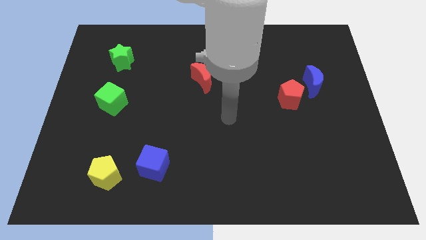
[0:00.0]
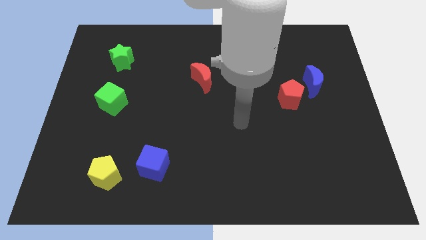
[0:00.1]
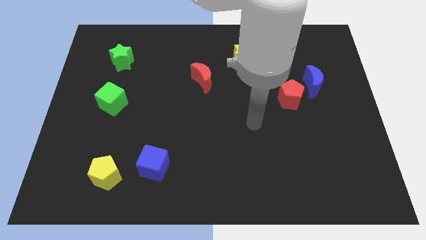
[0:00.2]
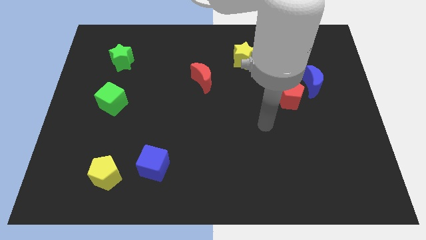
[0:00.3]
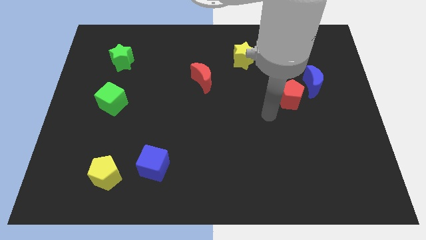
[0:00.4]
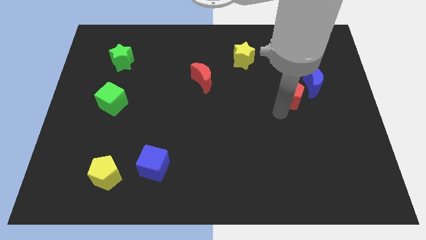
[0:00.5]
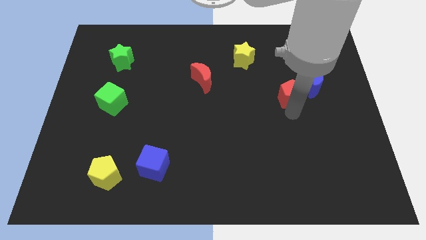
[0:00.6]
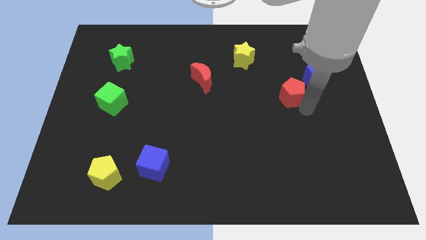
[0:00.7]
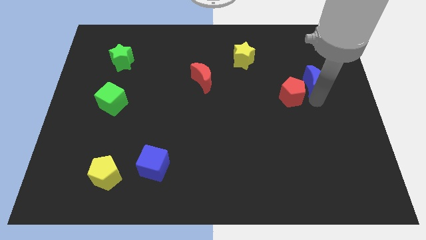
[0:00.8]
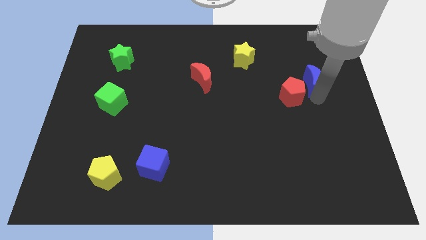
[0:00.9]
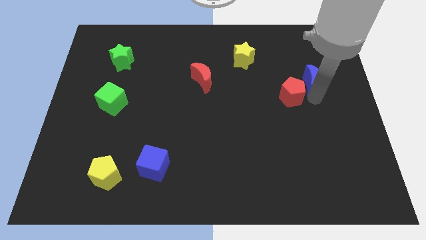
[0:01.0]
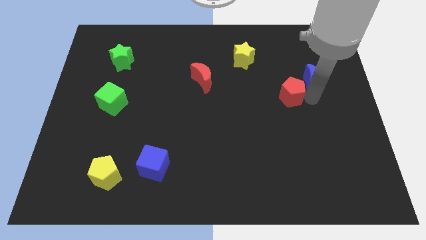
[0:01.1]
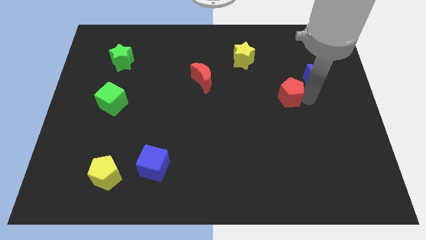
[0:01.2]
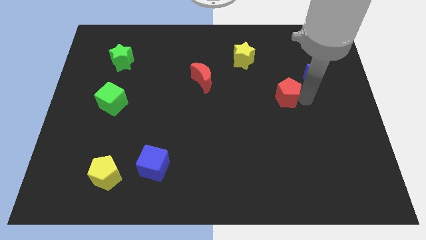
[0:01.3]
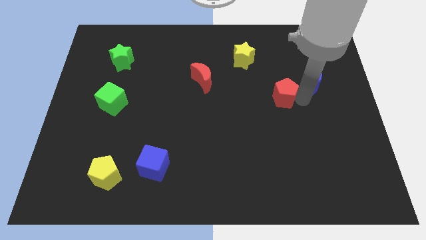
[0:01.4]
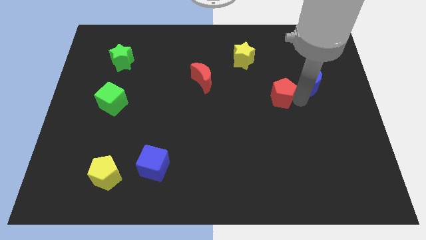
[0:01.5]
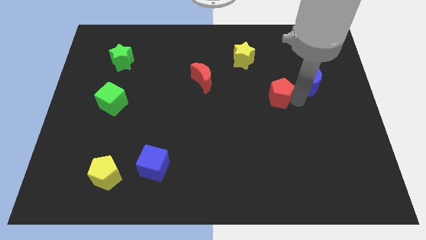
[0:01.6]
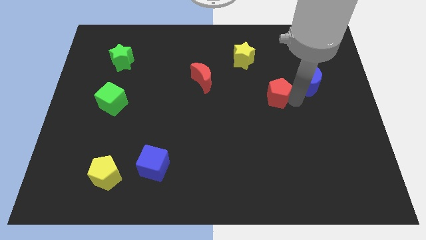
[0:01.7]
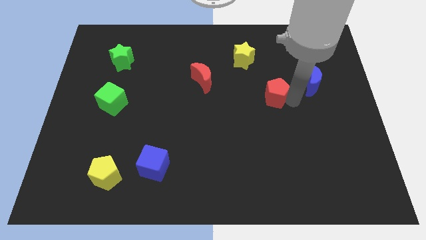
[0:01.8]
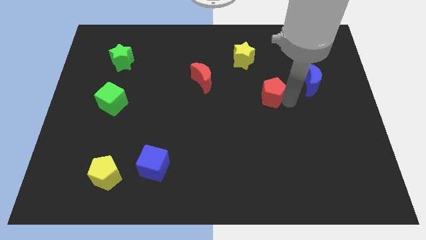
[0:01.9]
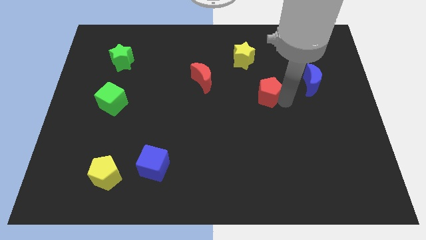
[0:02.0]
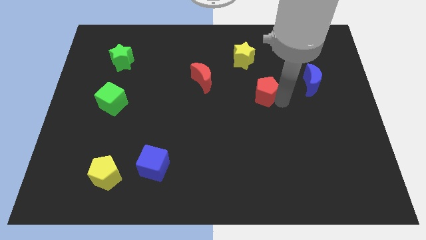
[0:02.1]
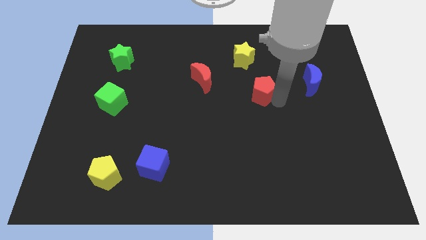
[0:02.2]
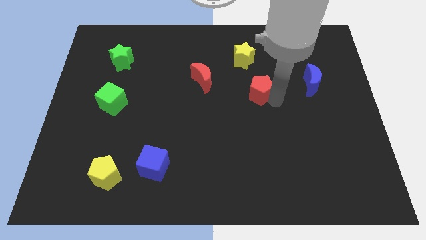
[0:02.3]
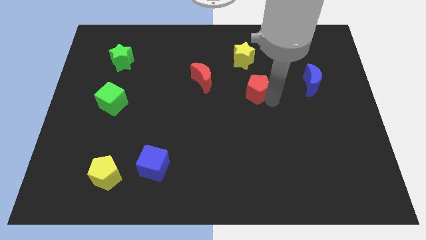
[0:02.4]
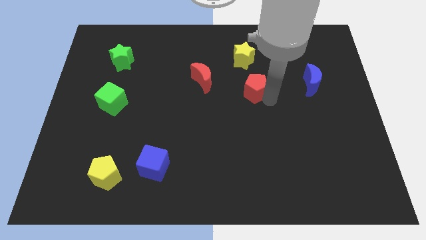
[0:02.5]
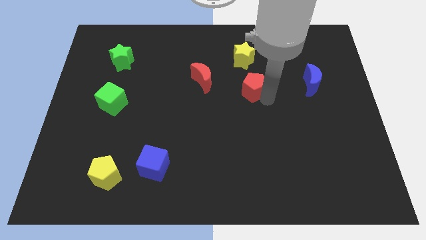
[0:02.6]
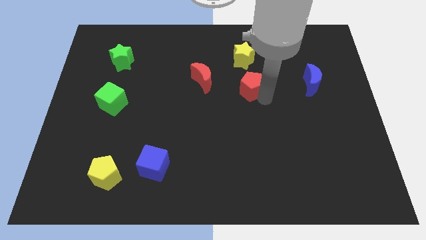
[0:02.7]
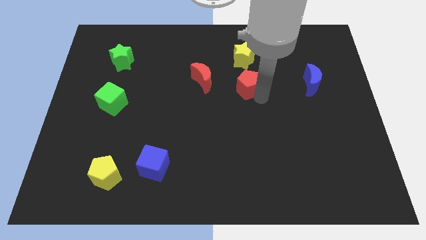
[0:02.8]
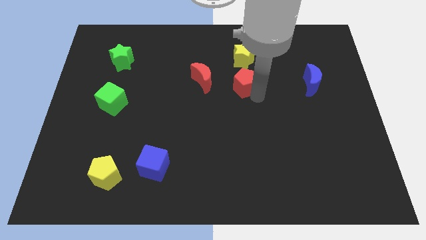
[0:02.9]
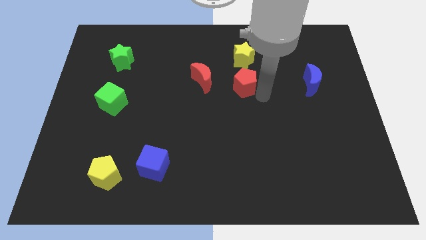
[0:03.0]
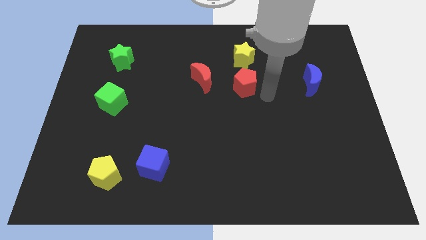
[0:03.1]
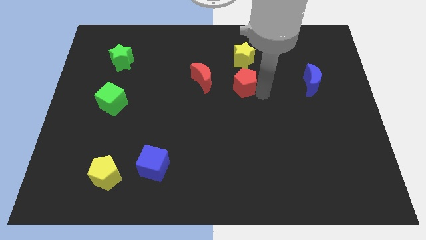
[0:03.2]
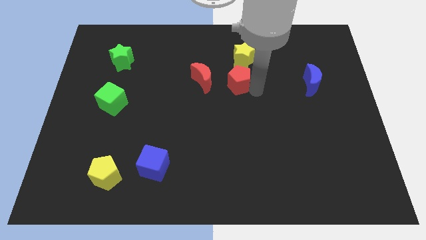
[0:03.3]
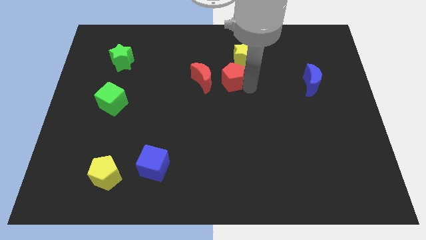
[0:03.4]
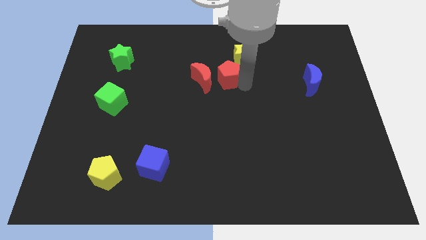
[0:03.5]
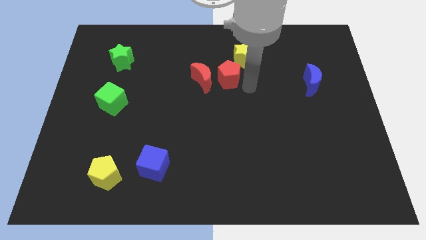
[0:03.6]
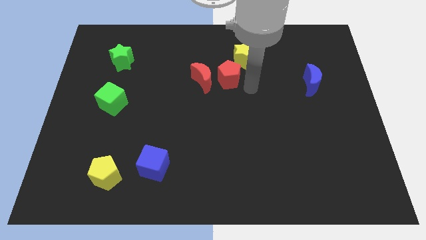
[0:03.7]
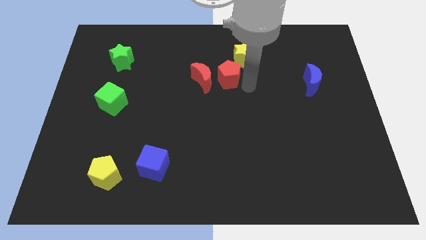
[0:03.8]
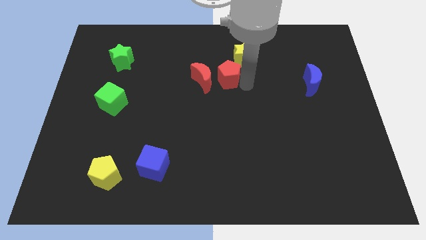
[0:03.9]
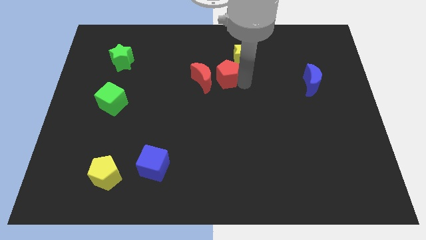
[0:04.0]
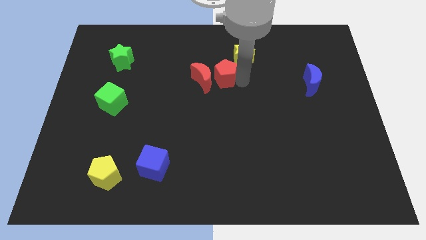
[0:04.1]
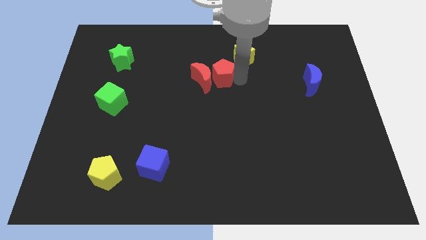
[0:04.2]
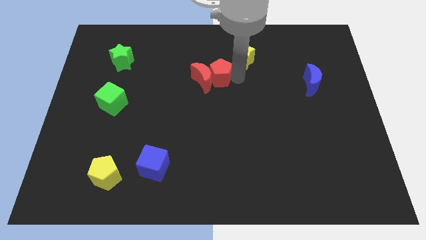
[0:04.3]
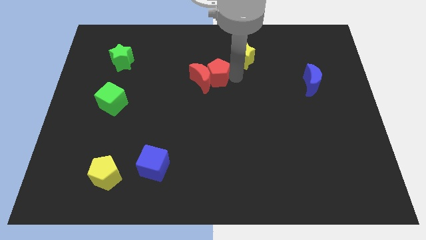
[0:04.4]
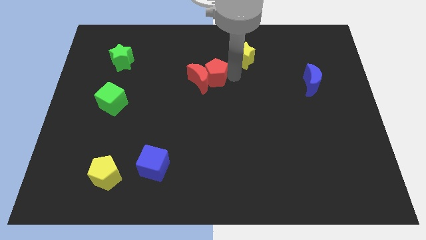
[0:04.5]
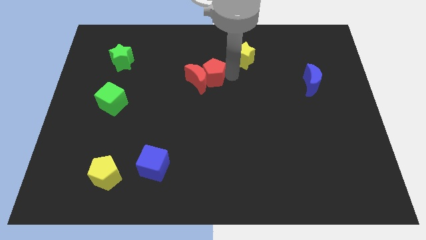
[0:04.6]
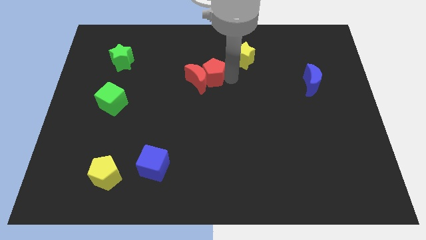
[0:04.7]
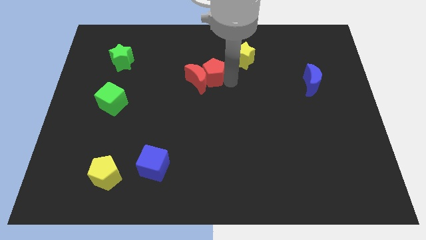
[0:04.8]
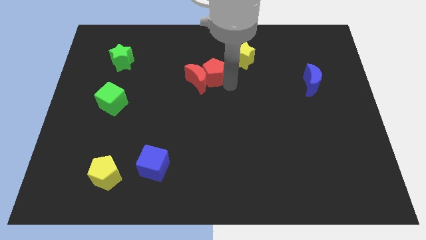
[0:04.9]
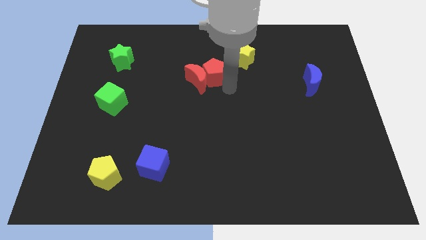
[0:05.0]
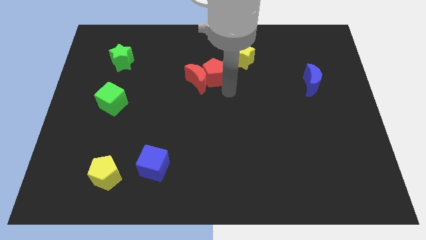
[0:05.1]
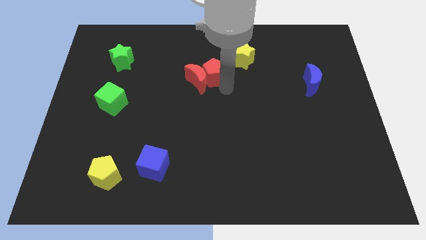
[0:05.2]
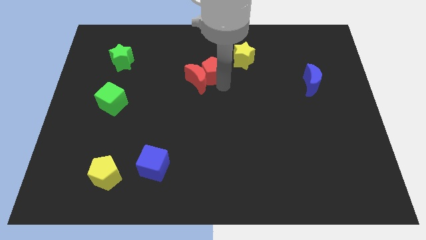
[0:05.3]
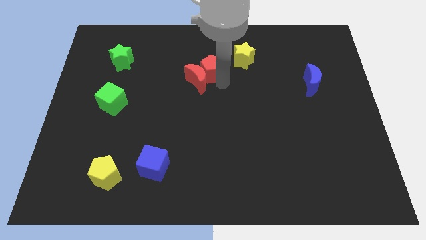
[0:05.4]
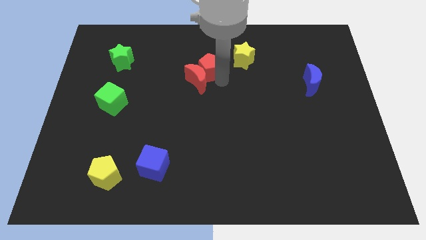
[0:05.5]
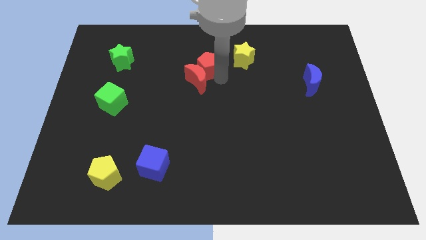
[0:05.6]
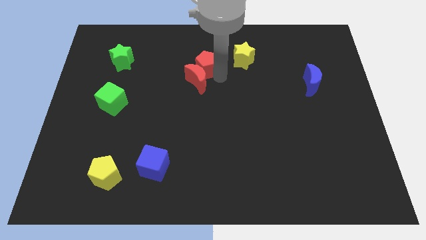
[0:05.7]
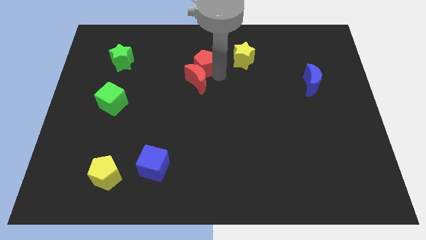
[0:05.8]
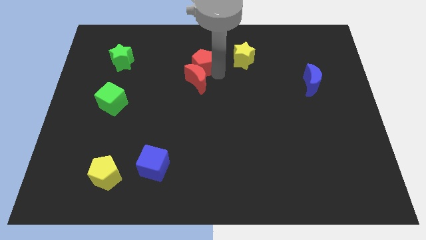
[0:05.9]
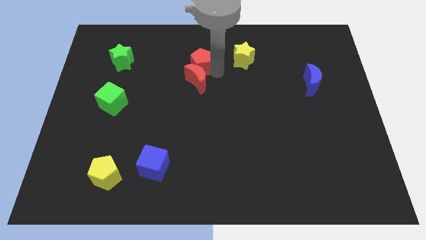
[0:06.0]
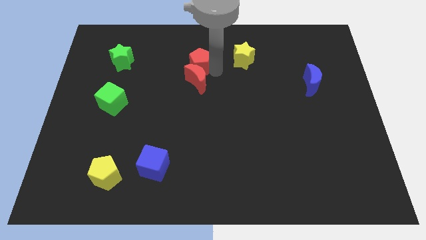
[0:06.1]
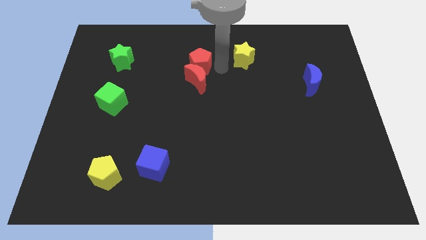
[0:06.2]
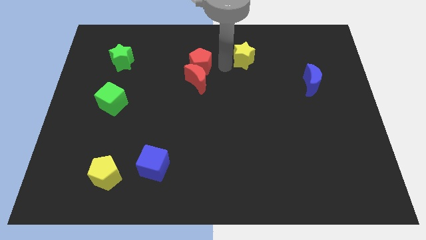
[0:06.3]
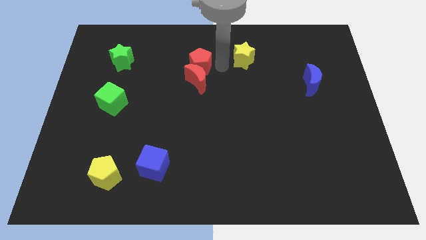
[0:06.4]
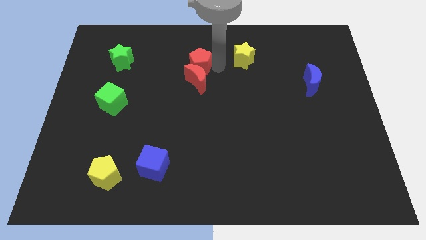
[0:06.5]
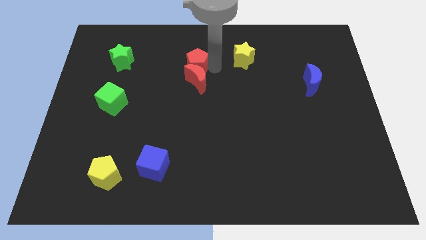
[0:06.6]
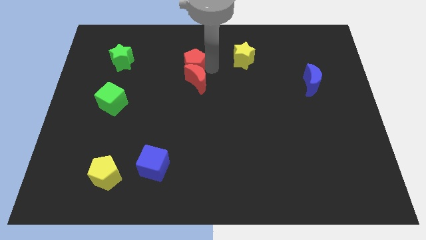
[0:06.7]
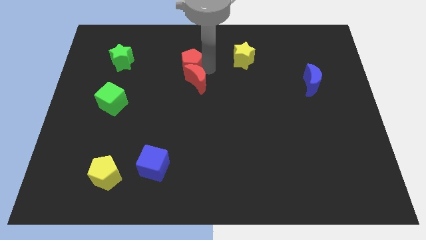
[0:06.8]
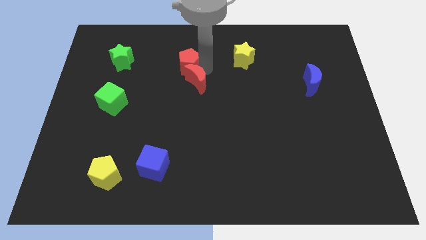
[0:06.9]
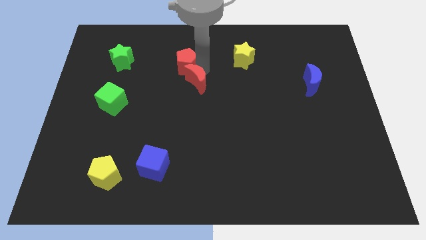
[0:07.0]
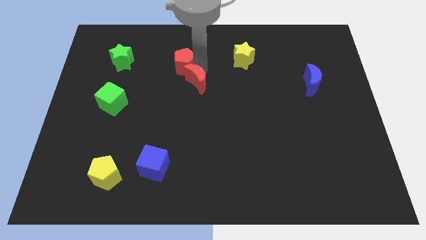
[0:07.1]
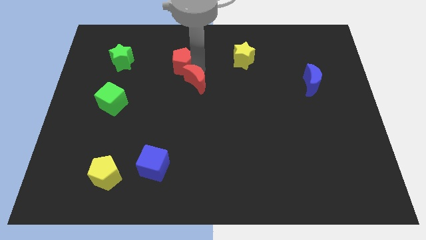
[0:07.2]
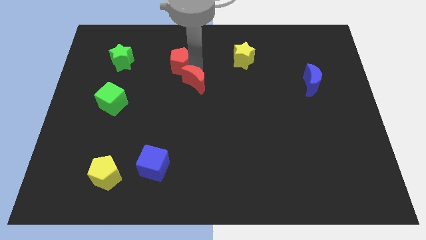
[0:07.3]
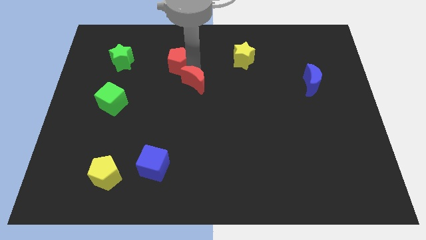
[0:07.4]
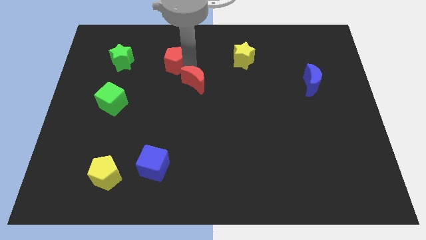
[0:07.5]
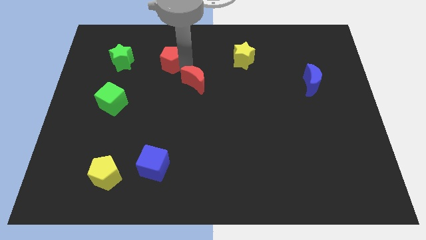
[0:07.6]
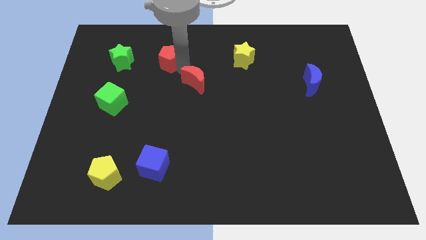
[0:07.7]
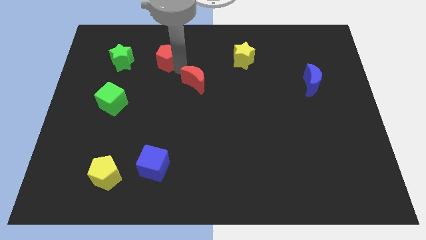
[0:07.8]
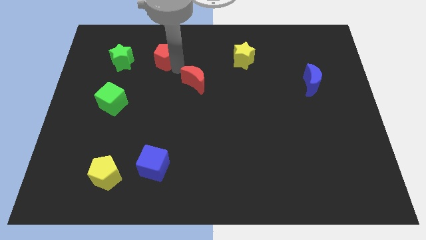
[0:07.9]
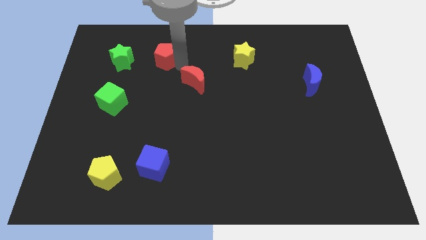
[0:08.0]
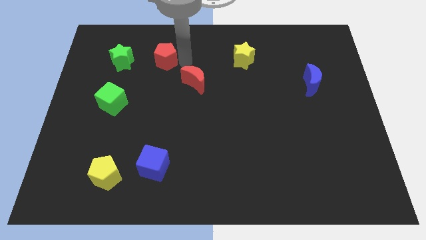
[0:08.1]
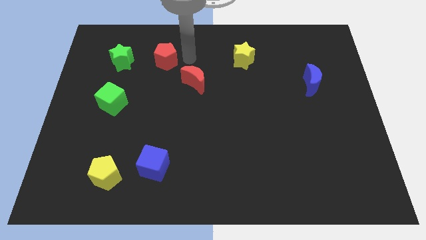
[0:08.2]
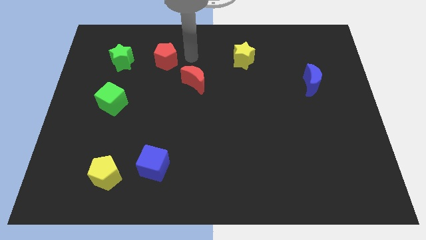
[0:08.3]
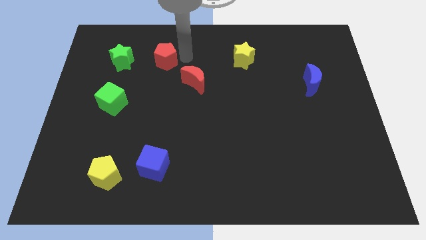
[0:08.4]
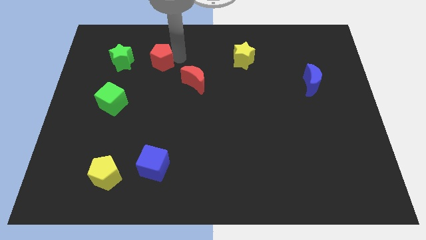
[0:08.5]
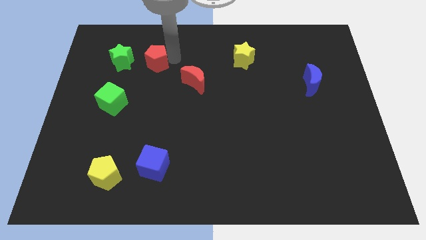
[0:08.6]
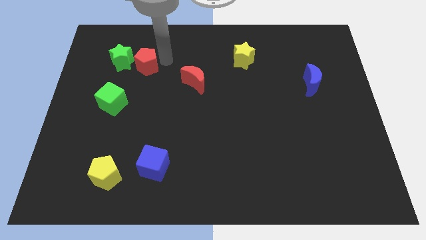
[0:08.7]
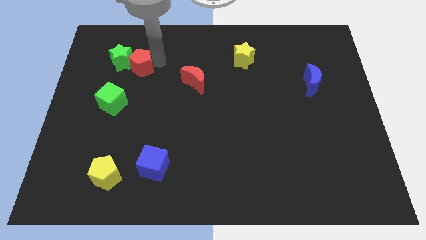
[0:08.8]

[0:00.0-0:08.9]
slide the red pentagon close to the green star
